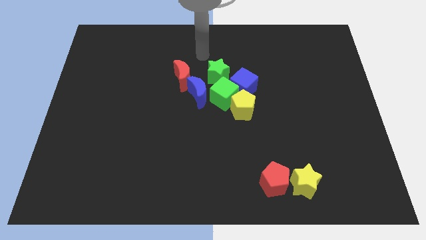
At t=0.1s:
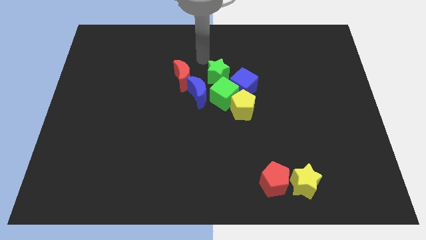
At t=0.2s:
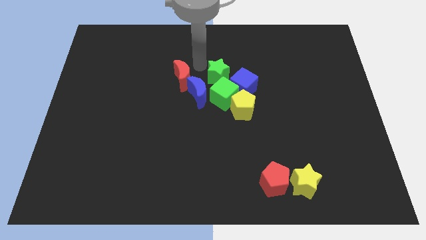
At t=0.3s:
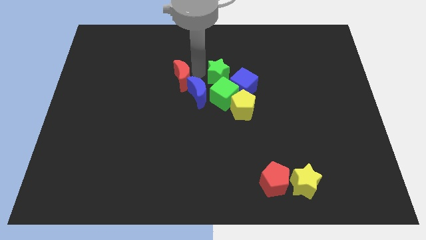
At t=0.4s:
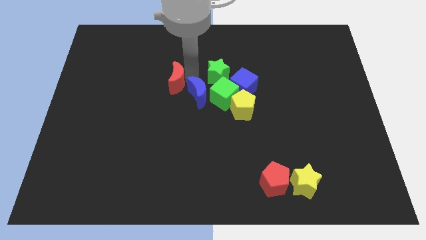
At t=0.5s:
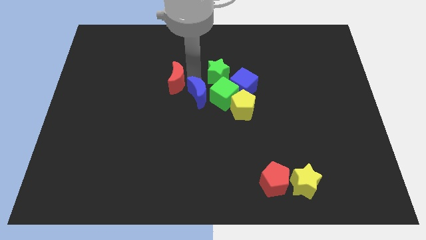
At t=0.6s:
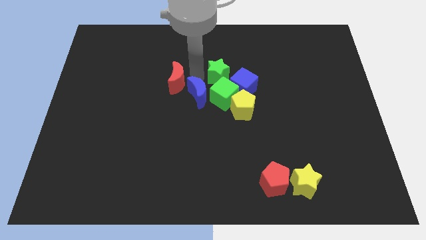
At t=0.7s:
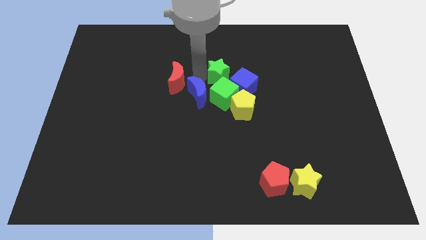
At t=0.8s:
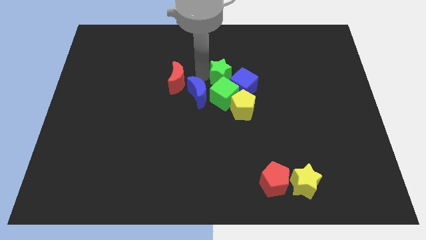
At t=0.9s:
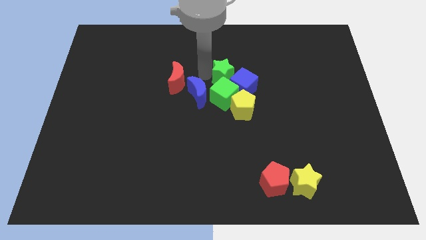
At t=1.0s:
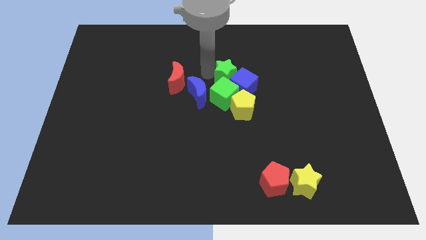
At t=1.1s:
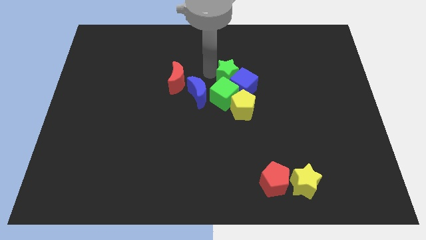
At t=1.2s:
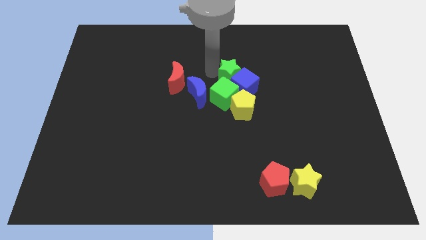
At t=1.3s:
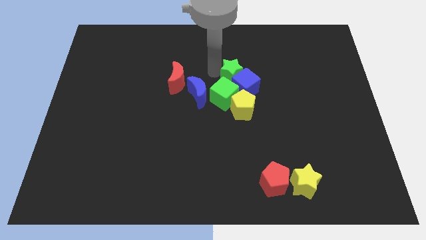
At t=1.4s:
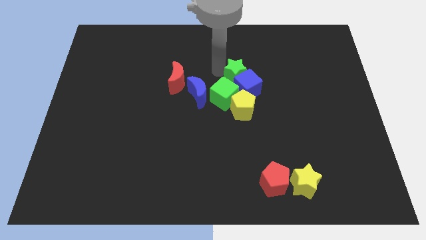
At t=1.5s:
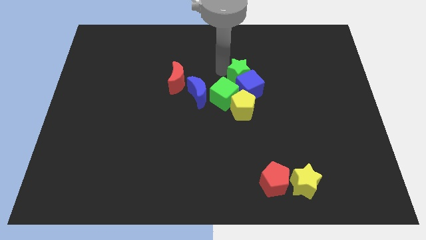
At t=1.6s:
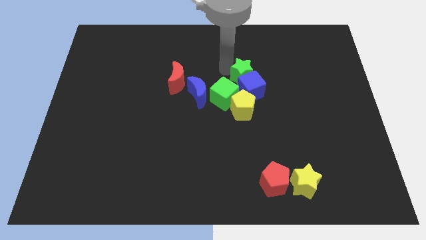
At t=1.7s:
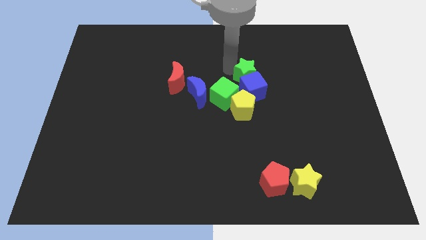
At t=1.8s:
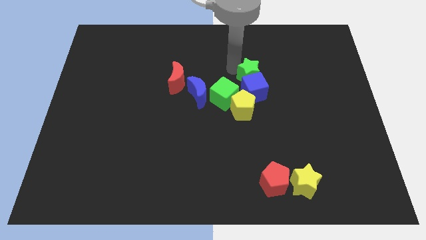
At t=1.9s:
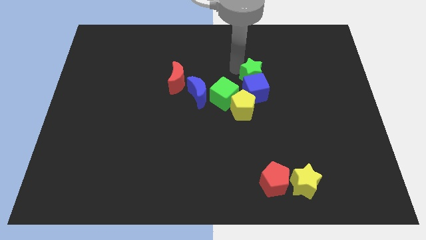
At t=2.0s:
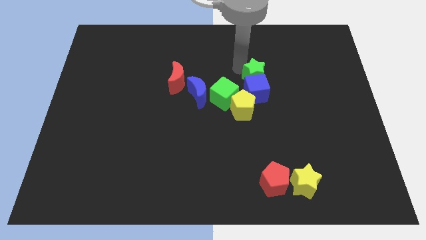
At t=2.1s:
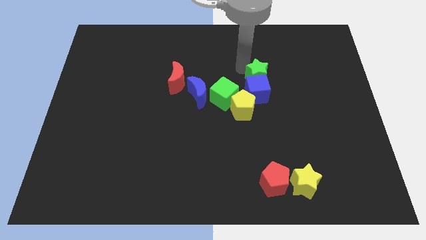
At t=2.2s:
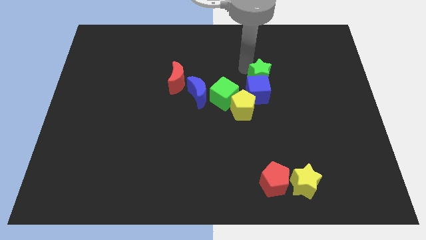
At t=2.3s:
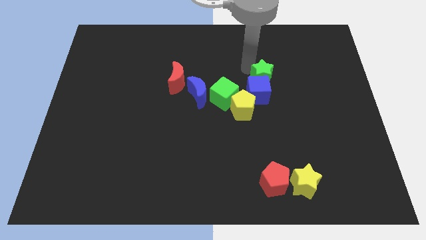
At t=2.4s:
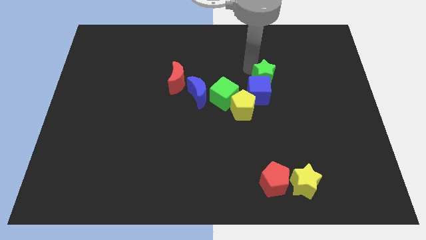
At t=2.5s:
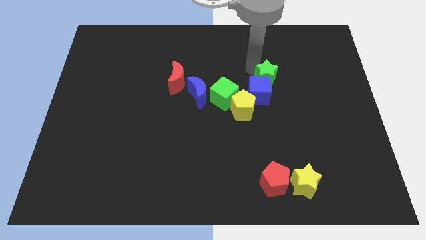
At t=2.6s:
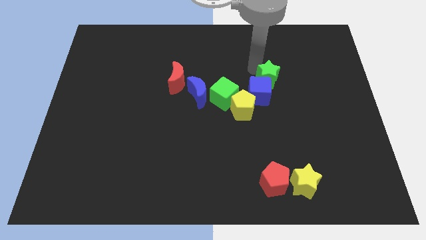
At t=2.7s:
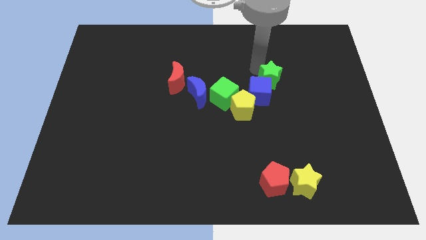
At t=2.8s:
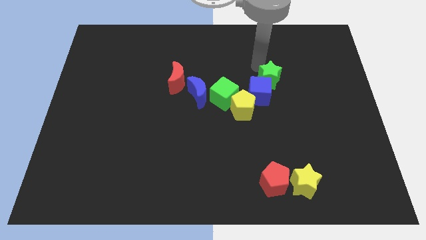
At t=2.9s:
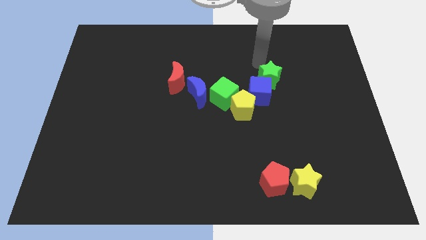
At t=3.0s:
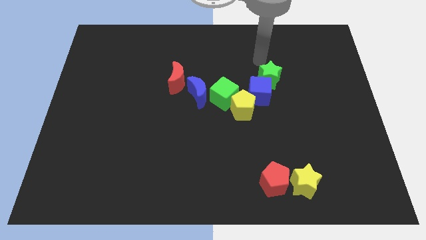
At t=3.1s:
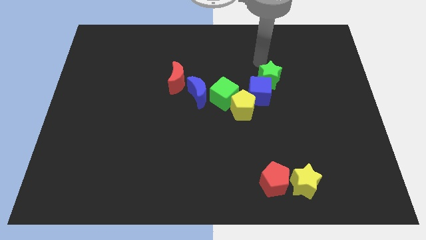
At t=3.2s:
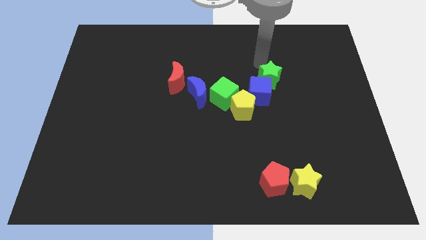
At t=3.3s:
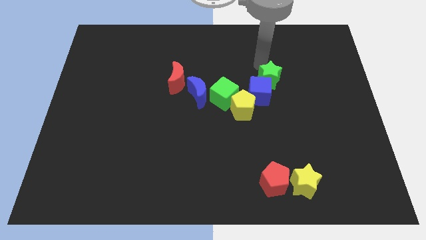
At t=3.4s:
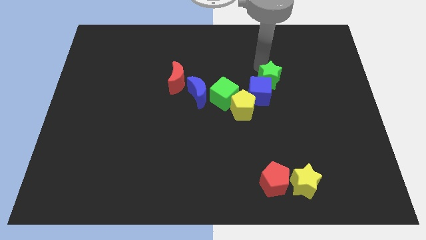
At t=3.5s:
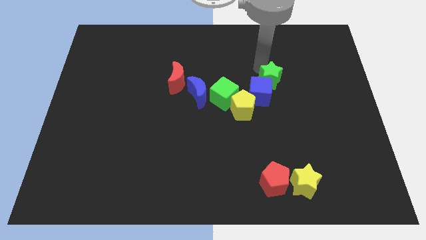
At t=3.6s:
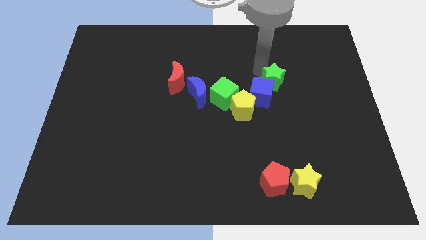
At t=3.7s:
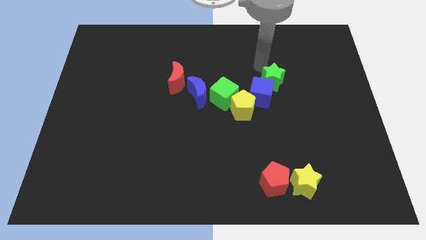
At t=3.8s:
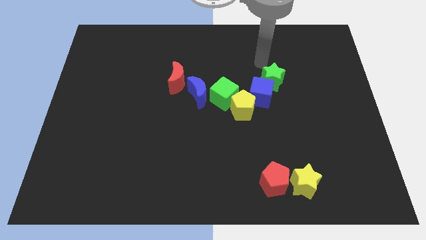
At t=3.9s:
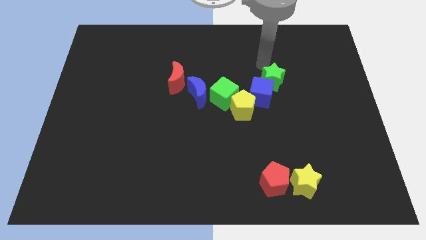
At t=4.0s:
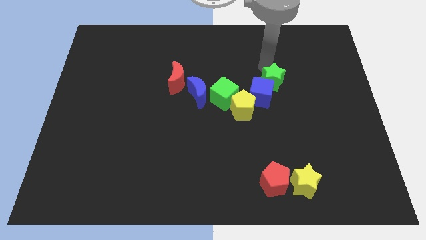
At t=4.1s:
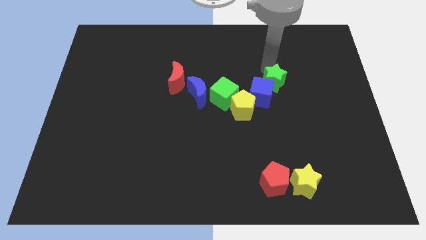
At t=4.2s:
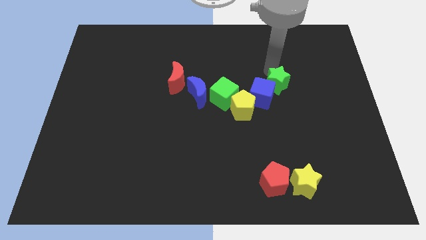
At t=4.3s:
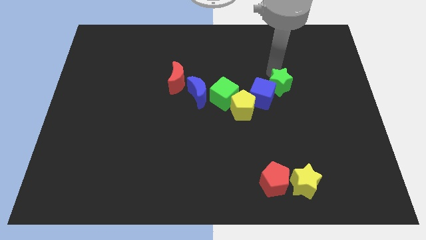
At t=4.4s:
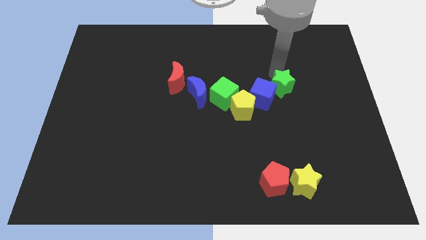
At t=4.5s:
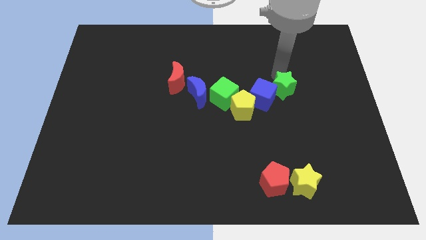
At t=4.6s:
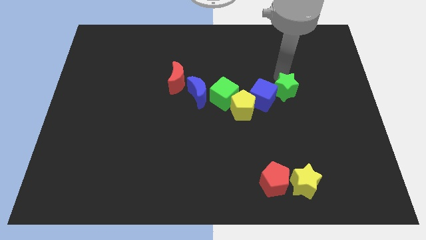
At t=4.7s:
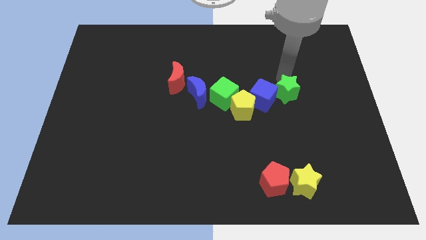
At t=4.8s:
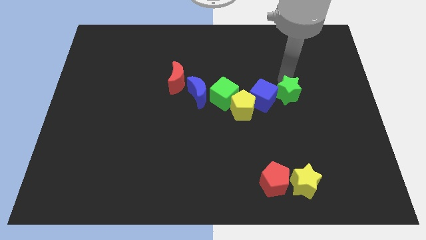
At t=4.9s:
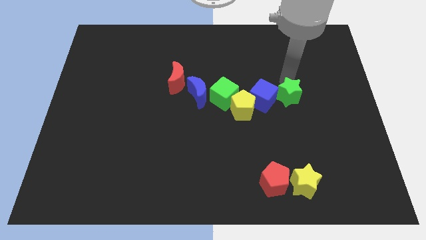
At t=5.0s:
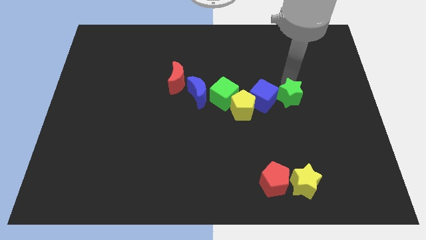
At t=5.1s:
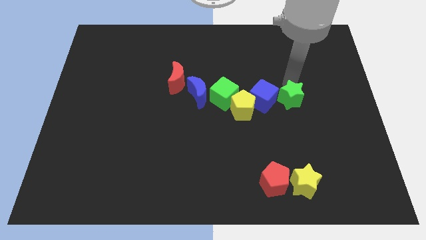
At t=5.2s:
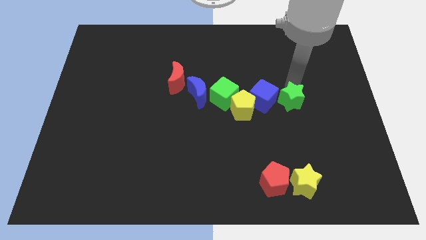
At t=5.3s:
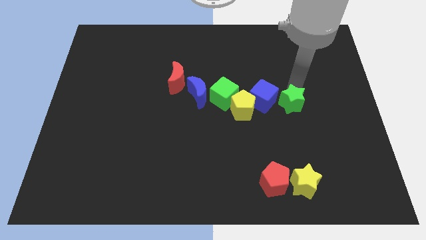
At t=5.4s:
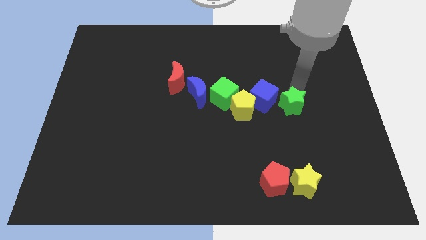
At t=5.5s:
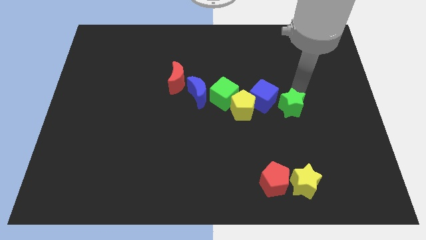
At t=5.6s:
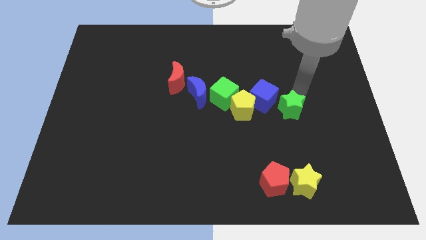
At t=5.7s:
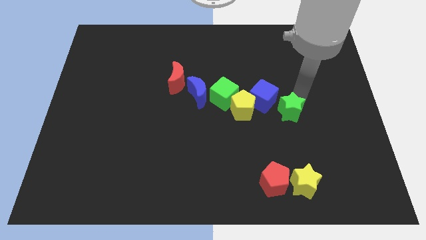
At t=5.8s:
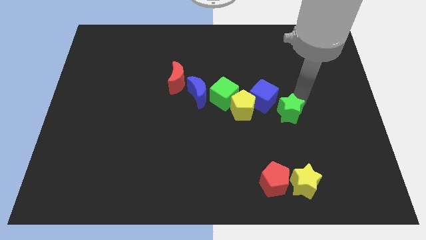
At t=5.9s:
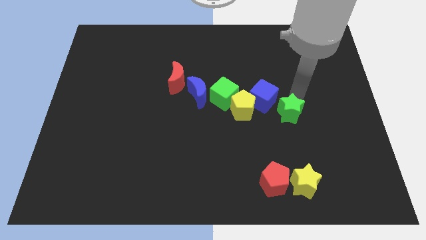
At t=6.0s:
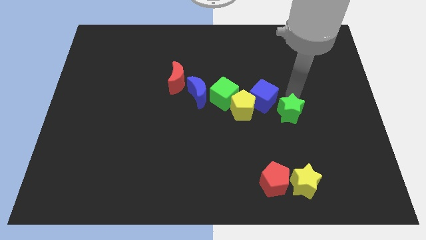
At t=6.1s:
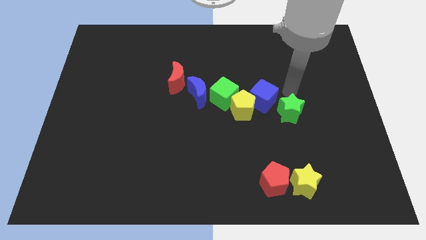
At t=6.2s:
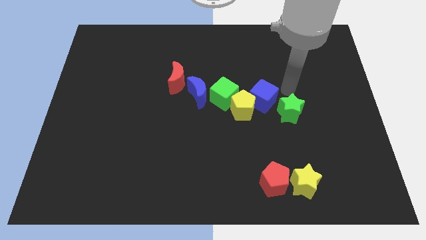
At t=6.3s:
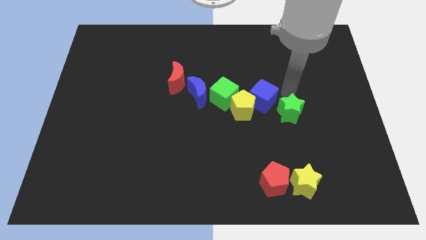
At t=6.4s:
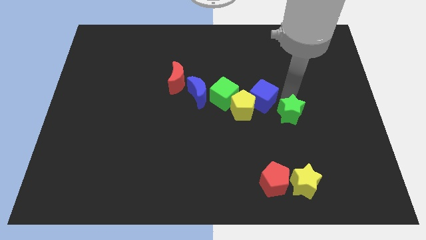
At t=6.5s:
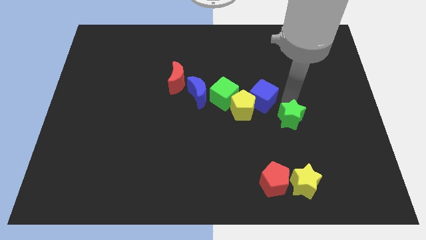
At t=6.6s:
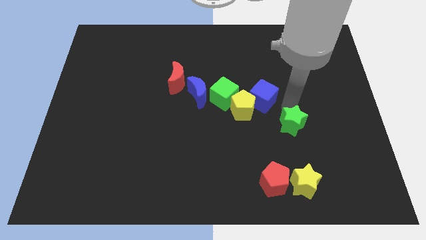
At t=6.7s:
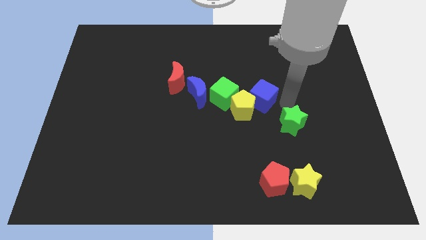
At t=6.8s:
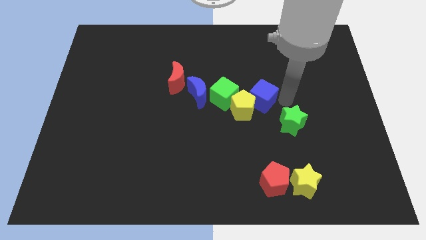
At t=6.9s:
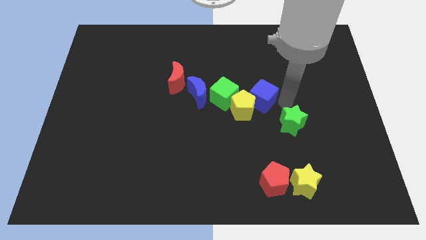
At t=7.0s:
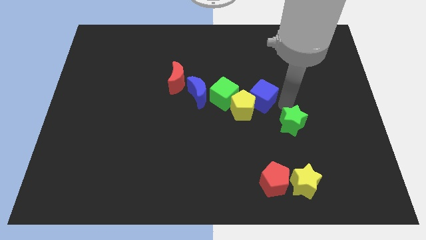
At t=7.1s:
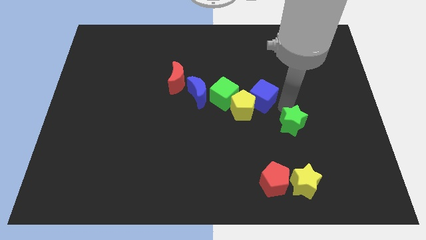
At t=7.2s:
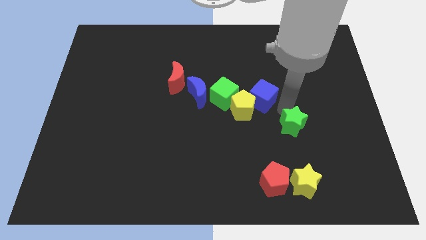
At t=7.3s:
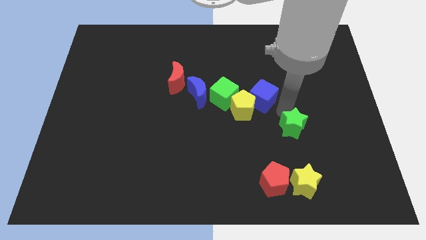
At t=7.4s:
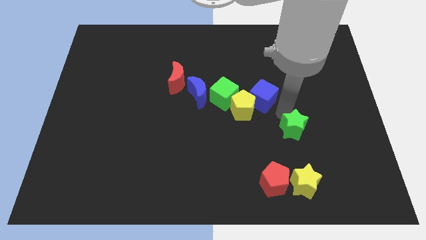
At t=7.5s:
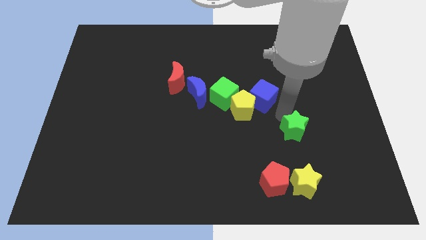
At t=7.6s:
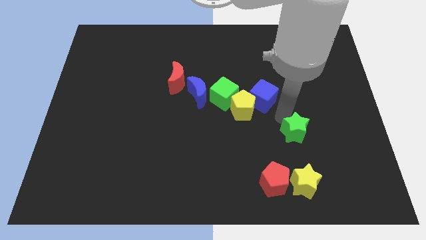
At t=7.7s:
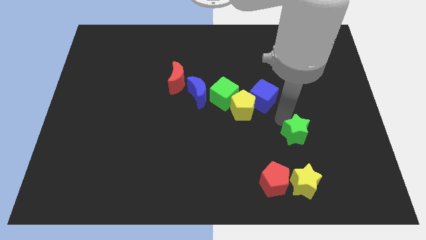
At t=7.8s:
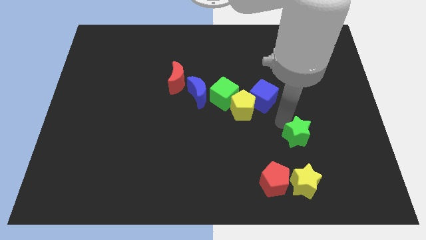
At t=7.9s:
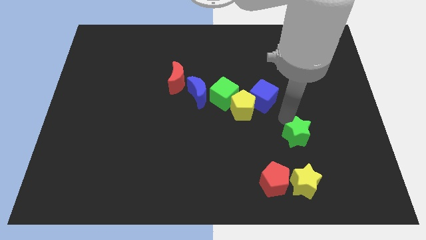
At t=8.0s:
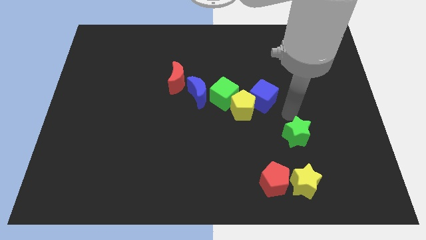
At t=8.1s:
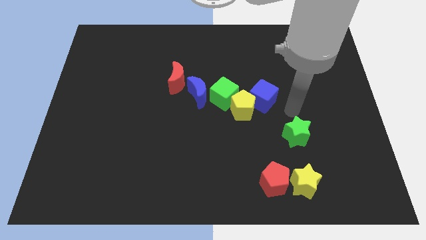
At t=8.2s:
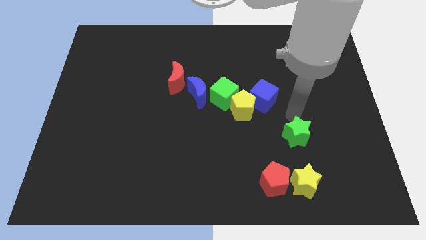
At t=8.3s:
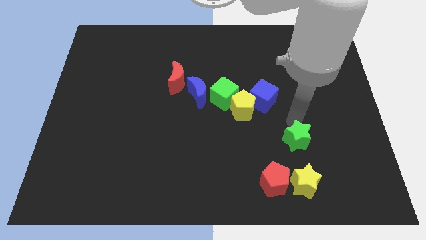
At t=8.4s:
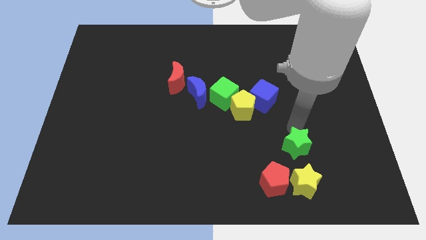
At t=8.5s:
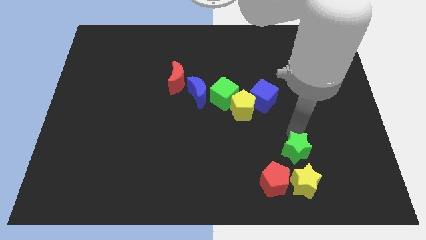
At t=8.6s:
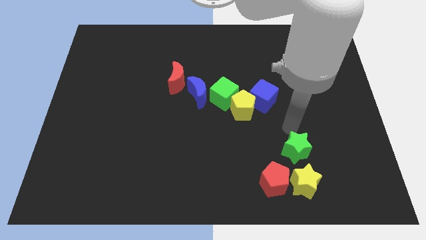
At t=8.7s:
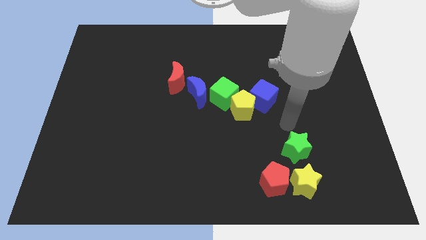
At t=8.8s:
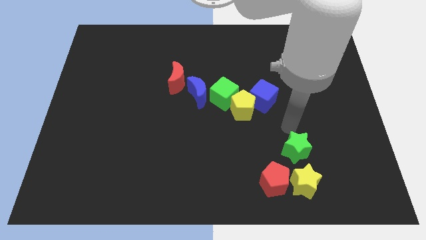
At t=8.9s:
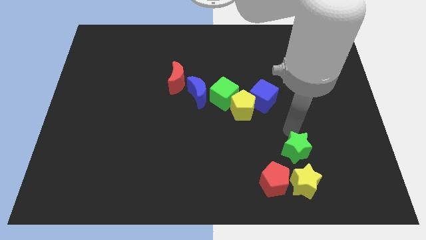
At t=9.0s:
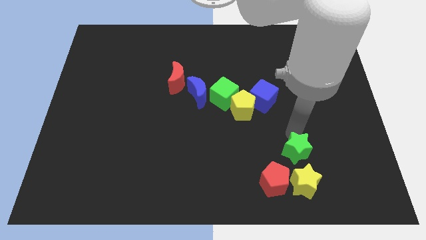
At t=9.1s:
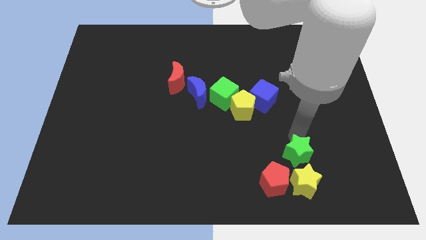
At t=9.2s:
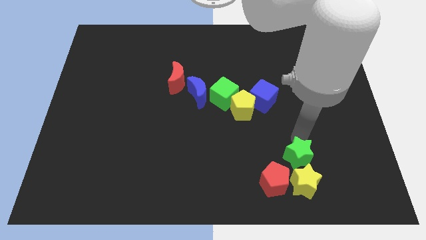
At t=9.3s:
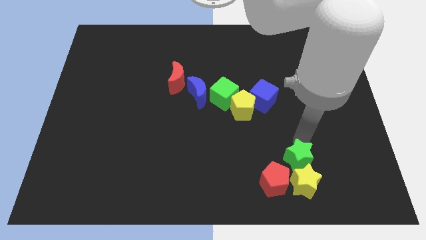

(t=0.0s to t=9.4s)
put the green star close to the yellow star
